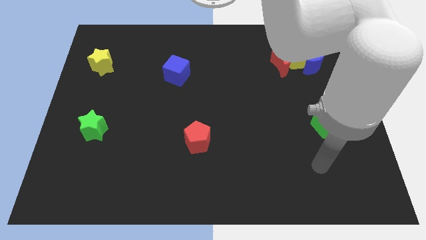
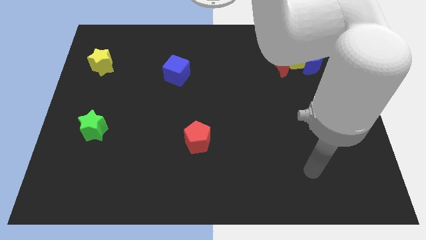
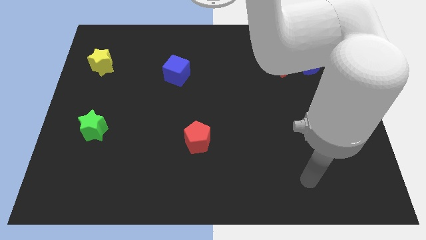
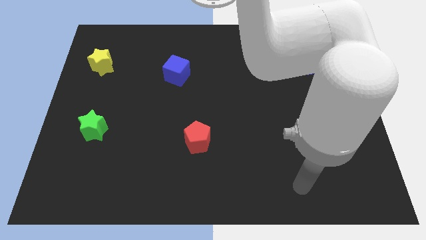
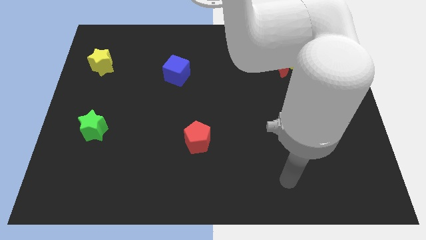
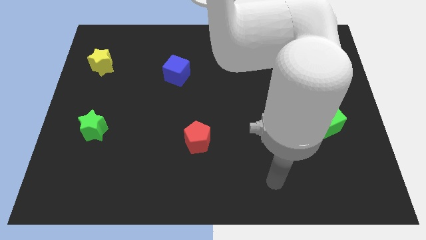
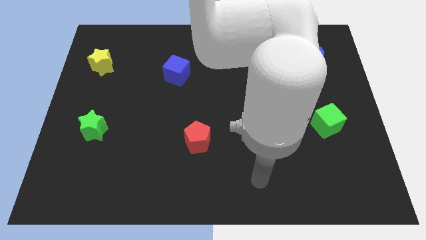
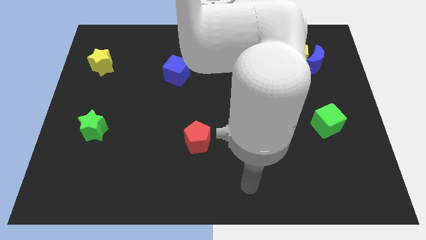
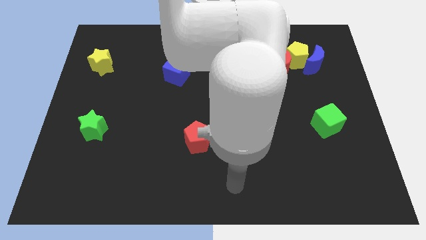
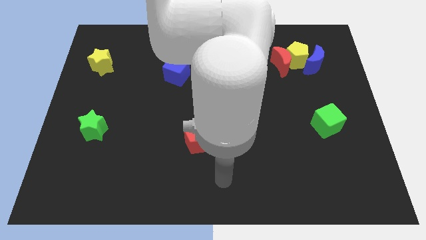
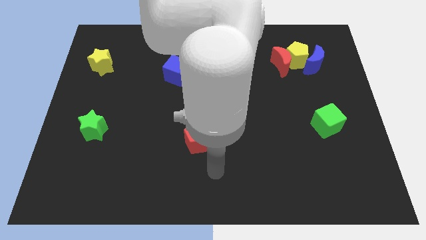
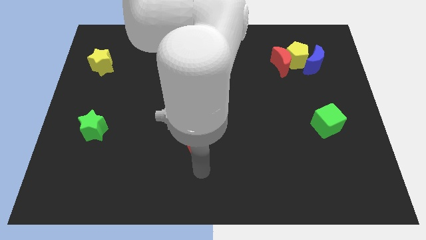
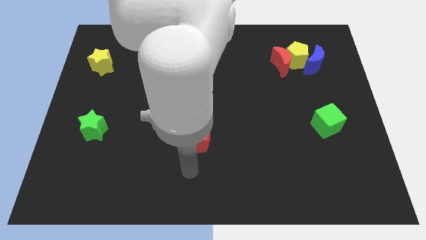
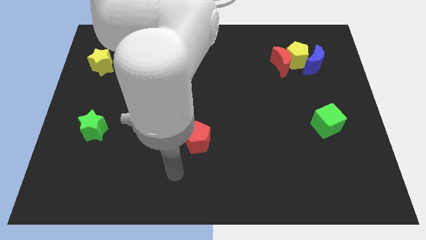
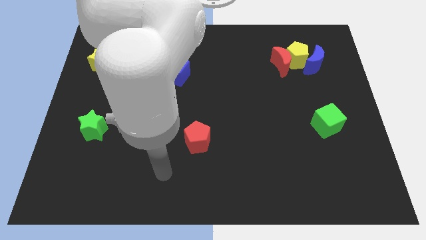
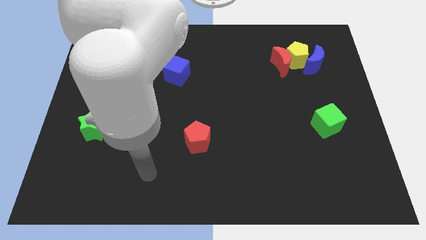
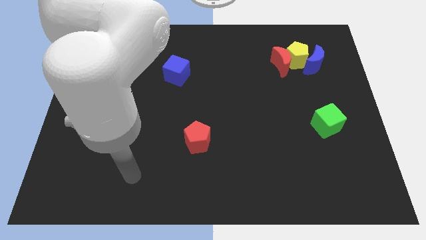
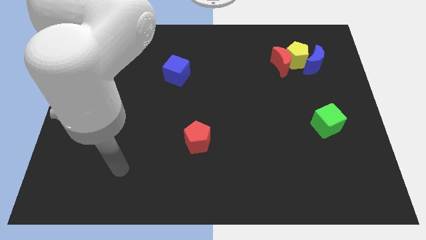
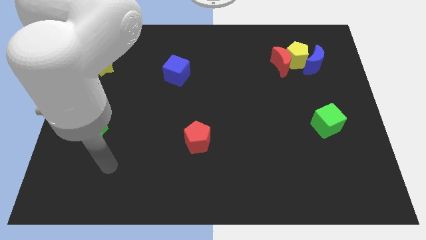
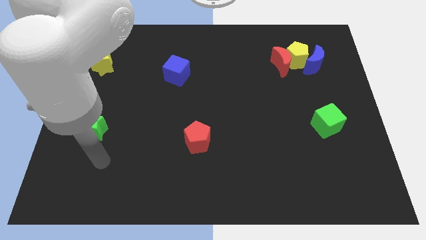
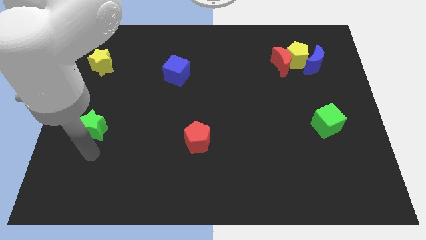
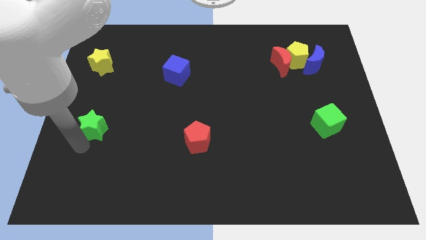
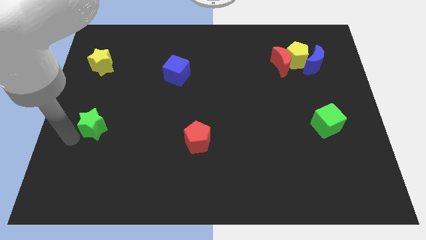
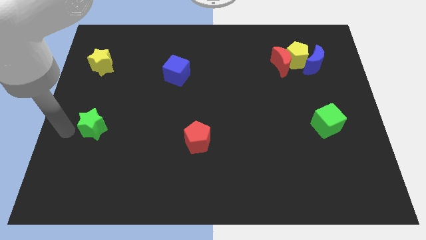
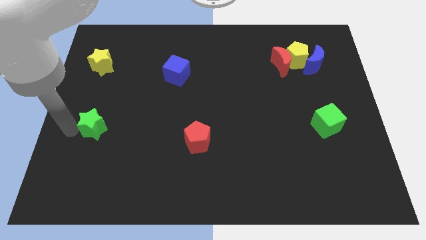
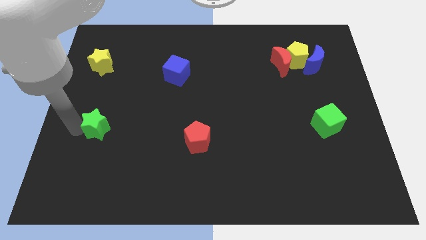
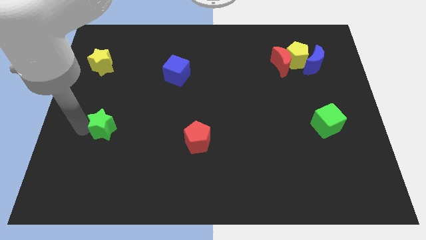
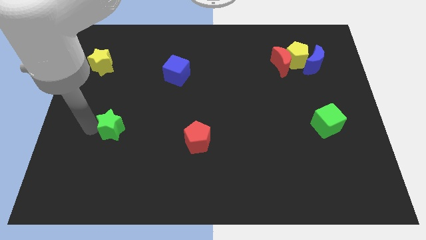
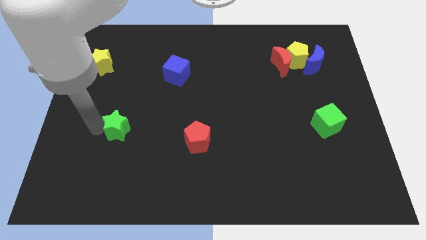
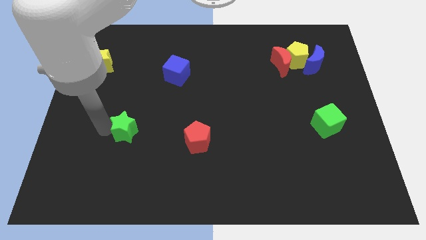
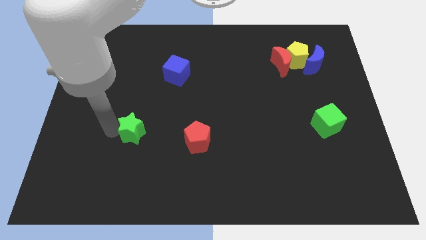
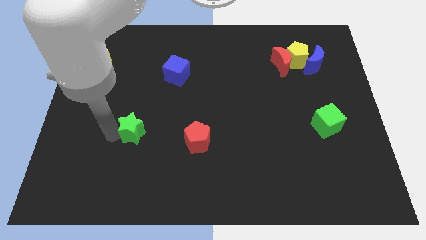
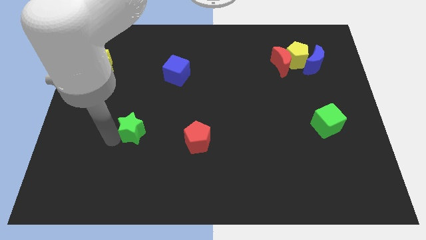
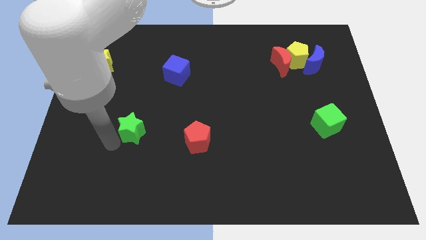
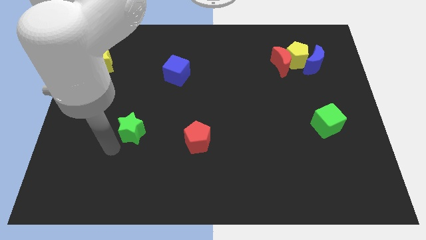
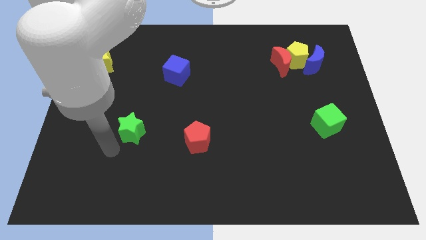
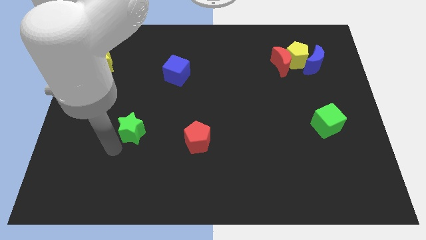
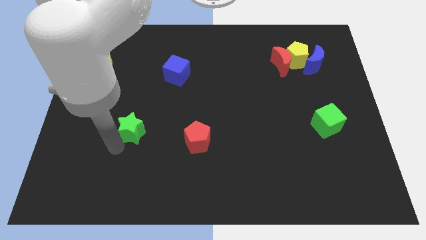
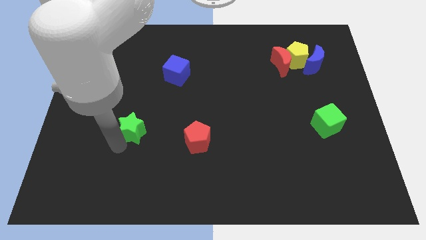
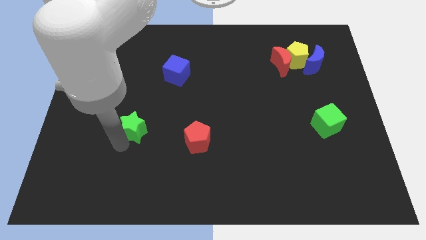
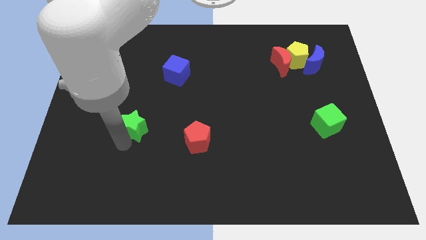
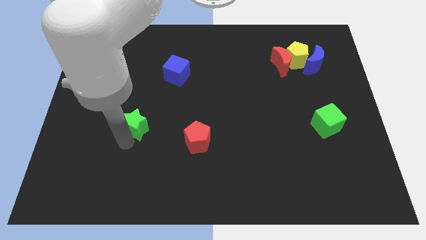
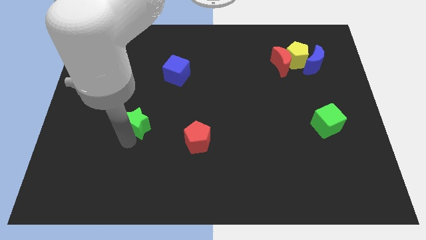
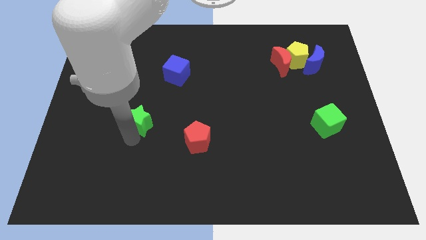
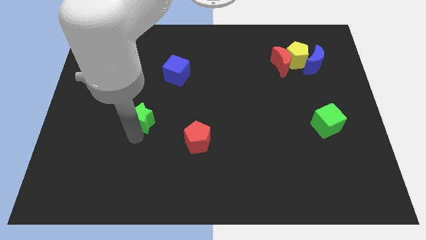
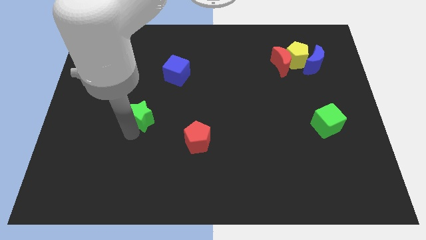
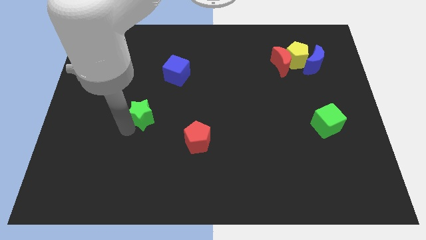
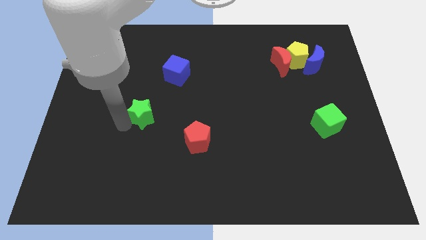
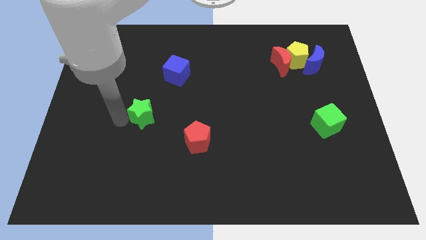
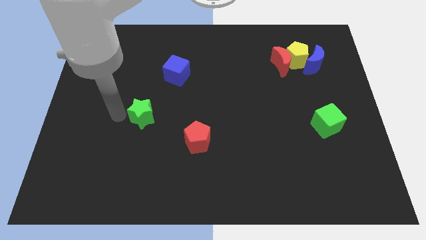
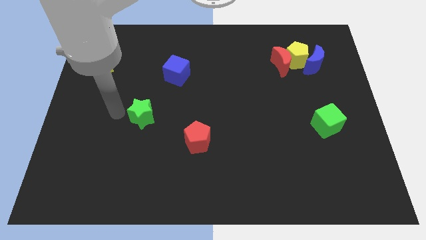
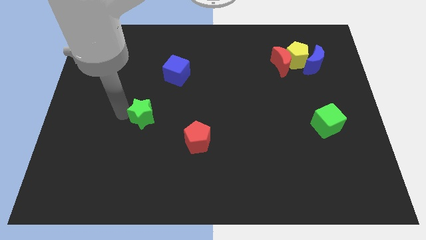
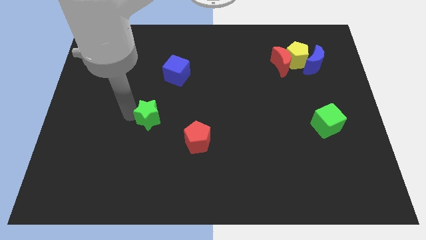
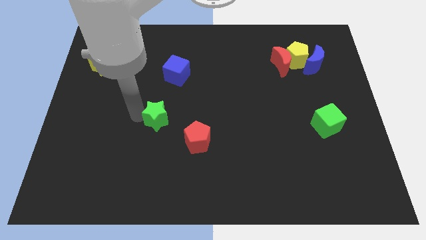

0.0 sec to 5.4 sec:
move the green star to the top left side of the red pentagon

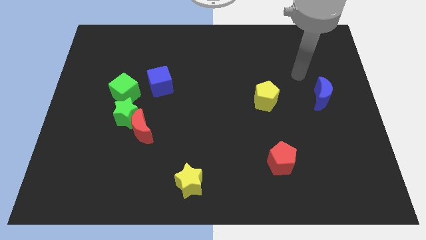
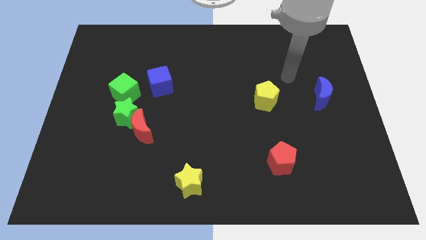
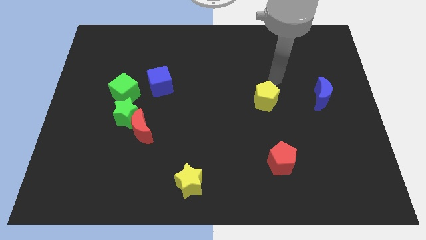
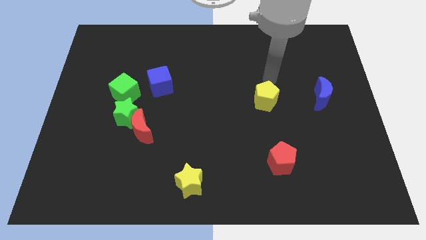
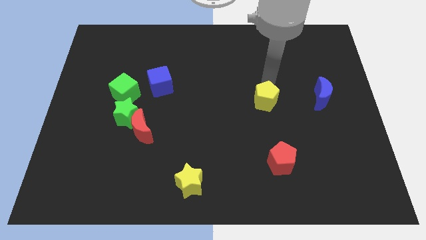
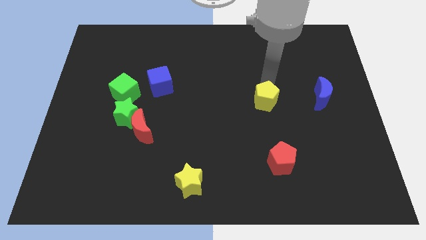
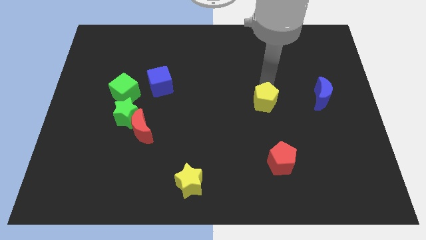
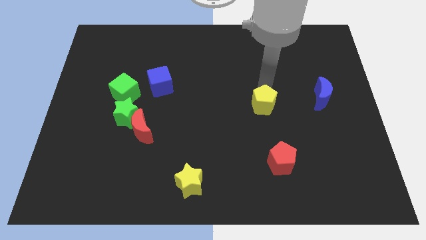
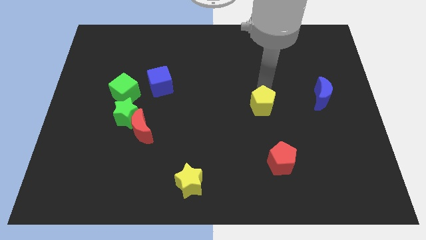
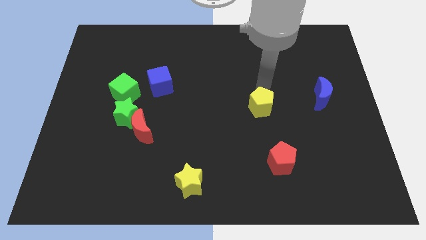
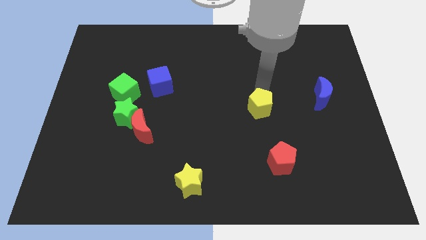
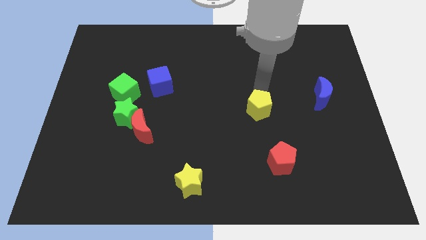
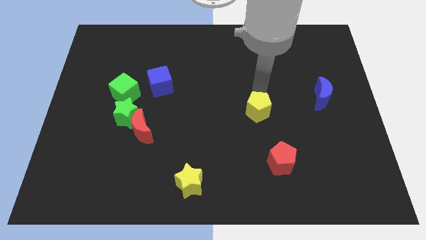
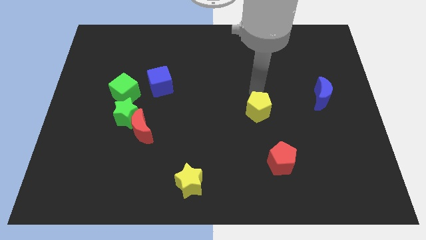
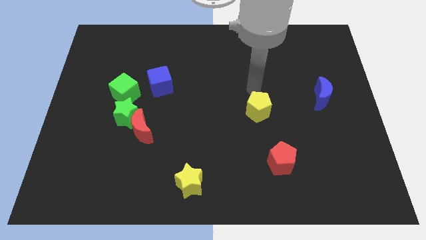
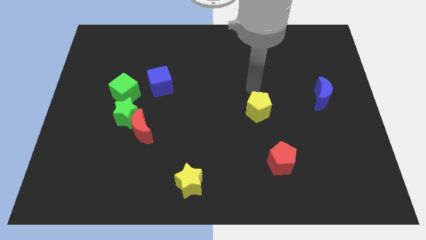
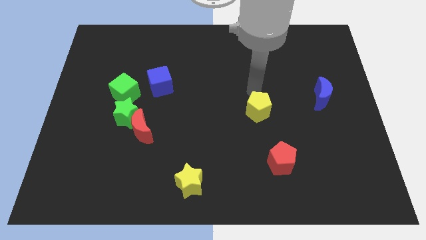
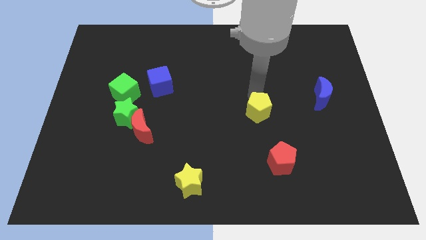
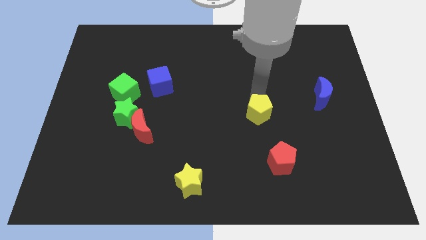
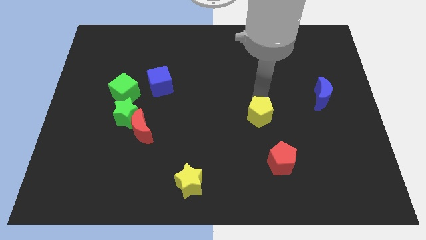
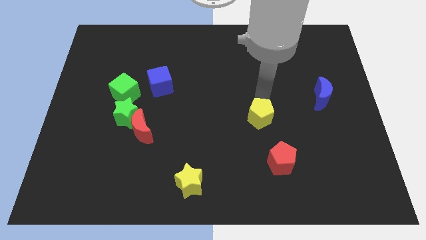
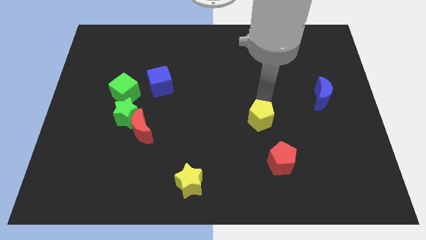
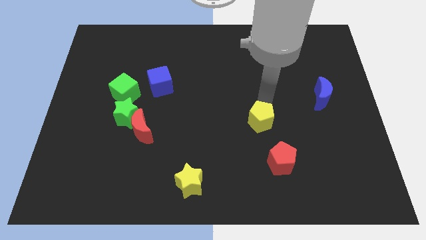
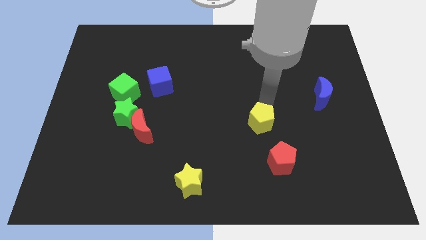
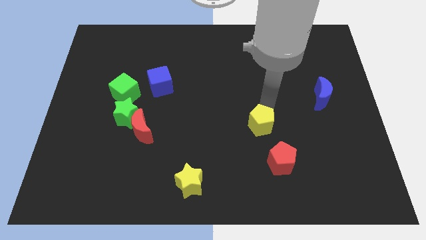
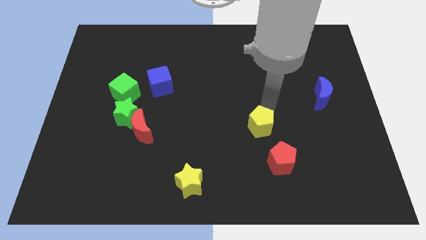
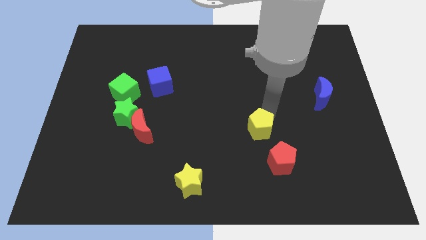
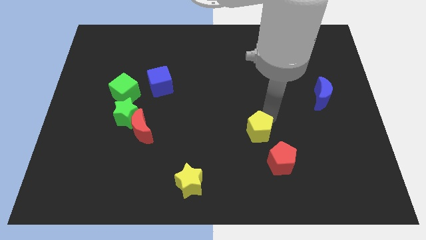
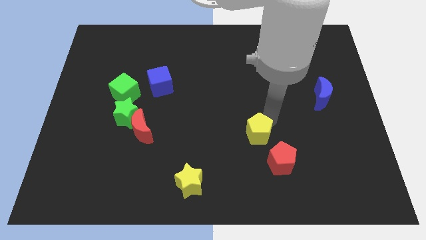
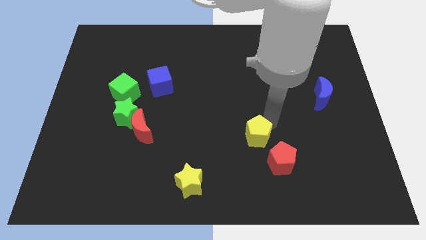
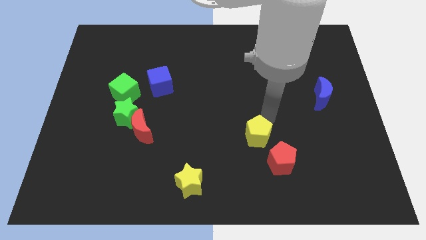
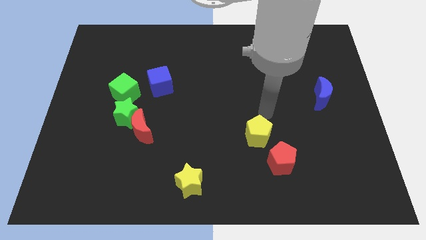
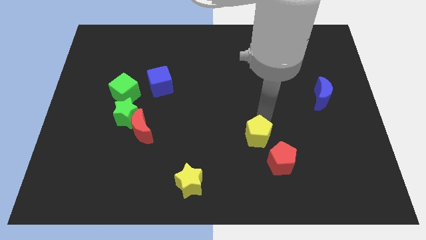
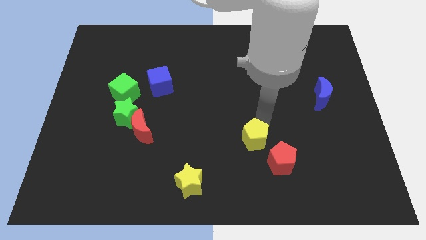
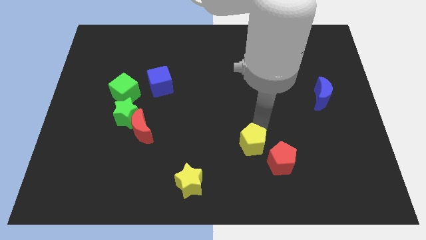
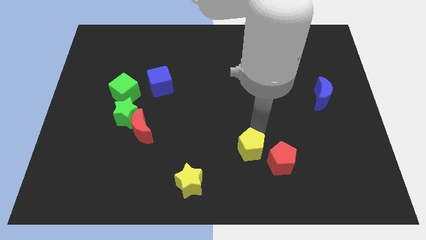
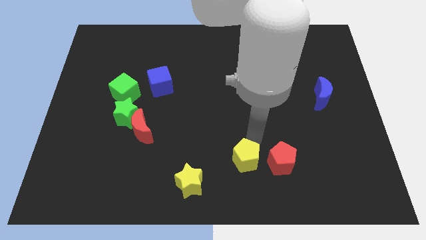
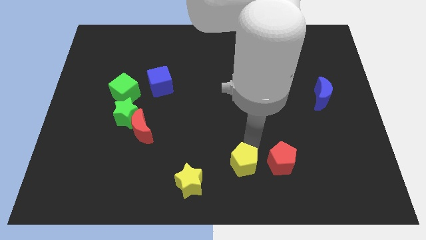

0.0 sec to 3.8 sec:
push the yellow pentagon to the right of the yellow star
